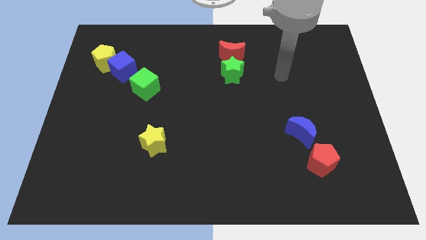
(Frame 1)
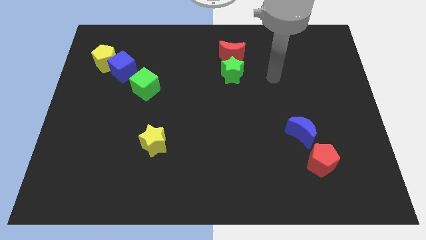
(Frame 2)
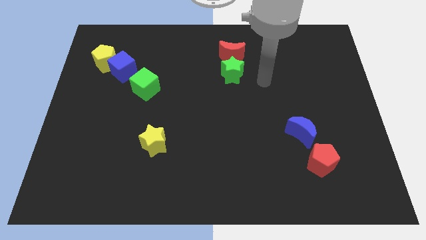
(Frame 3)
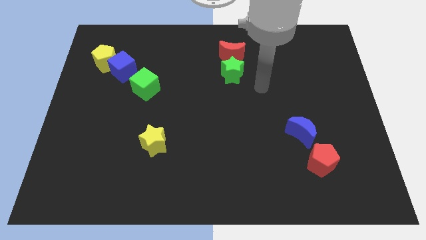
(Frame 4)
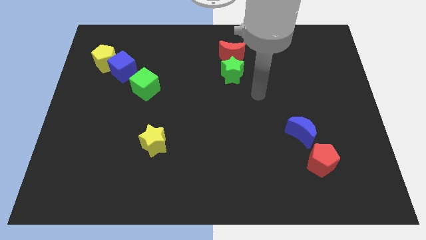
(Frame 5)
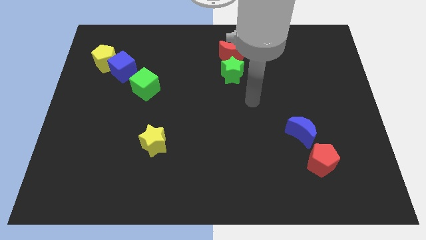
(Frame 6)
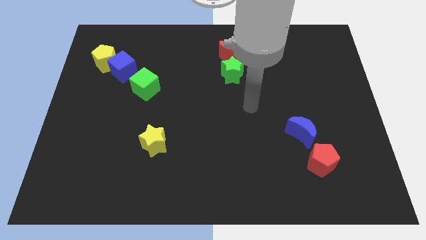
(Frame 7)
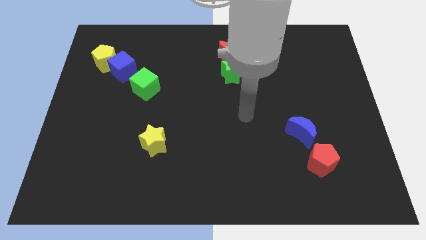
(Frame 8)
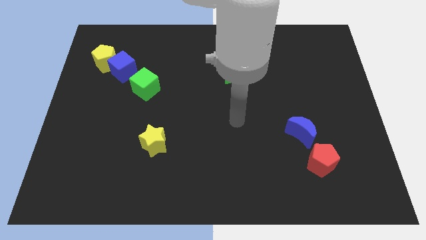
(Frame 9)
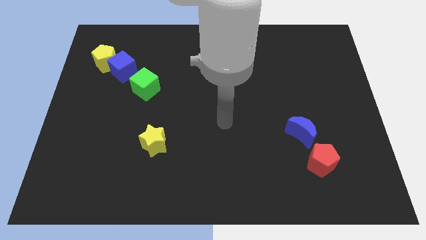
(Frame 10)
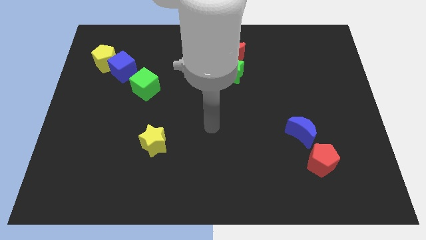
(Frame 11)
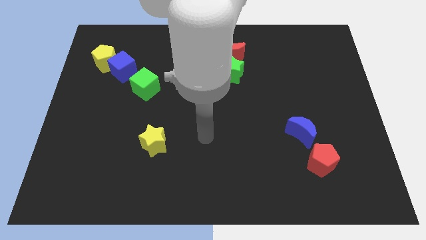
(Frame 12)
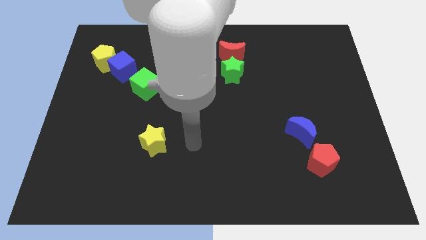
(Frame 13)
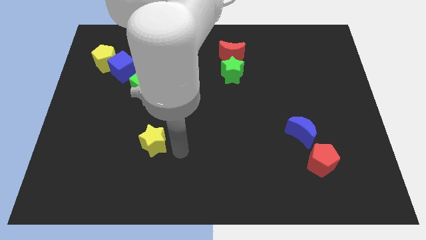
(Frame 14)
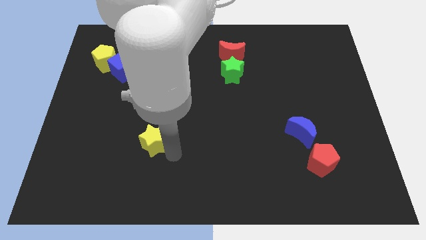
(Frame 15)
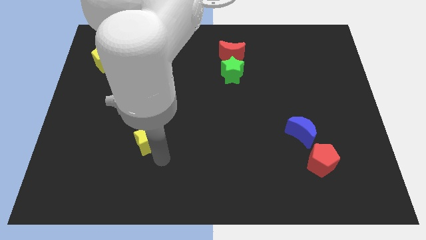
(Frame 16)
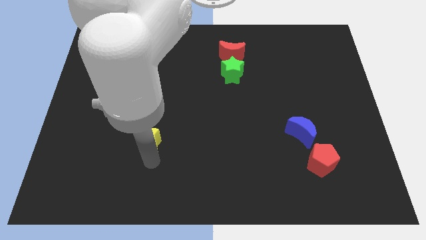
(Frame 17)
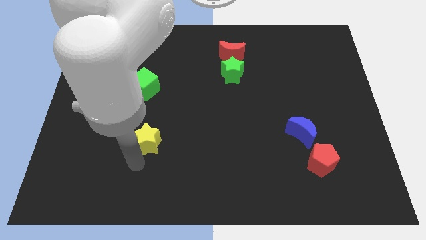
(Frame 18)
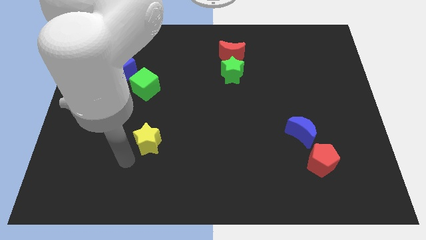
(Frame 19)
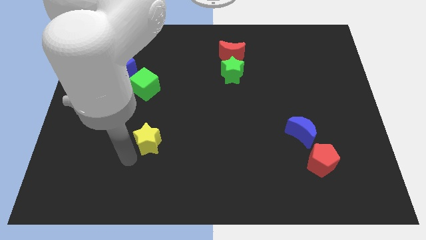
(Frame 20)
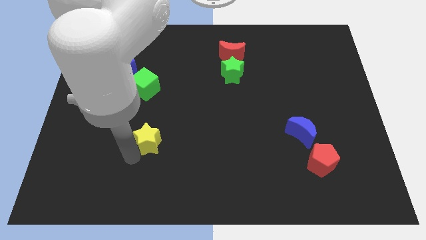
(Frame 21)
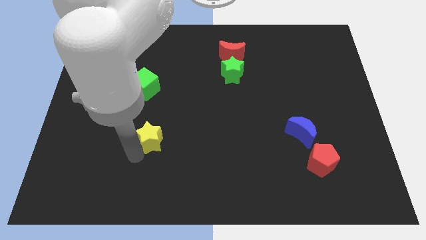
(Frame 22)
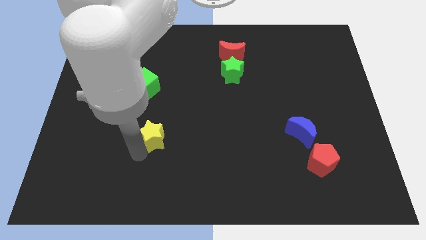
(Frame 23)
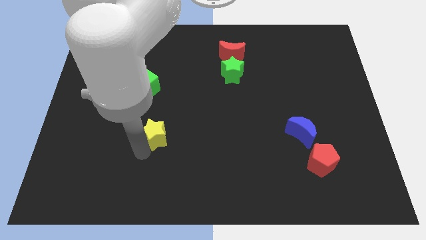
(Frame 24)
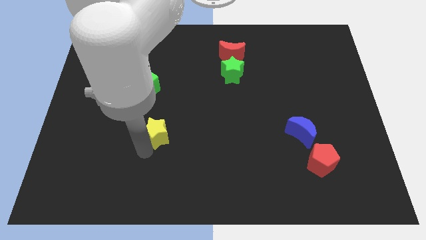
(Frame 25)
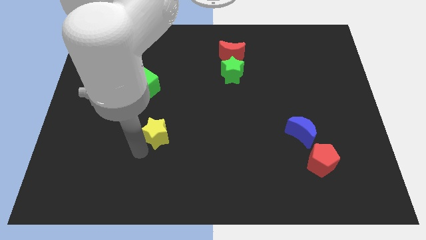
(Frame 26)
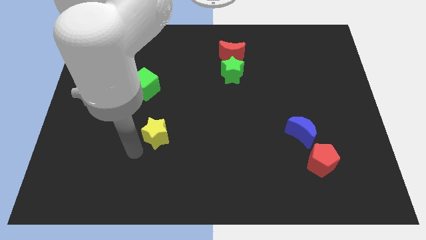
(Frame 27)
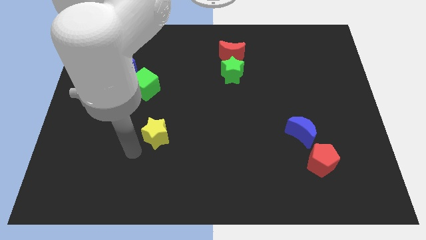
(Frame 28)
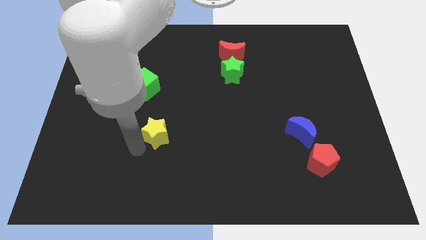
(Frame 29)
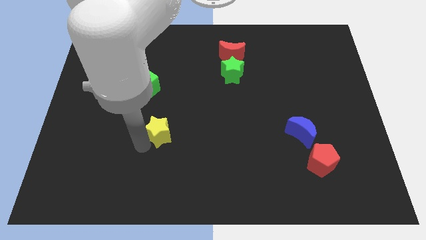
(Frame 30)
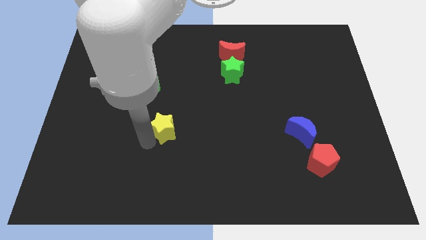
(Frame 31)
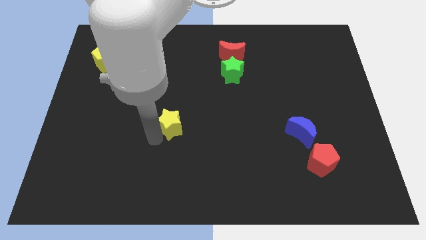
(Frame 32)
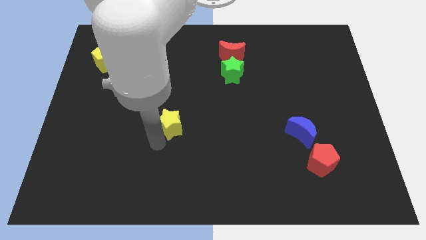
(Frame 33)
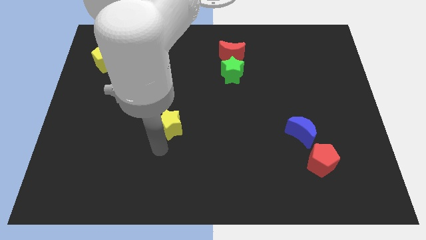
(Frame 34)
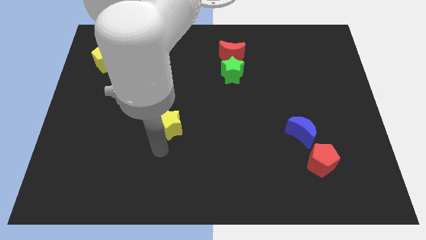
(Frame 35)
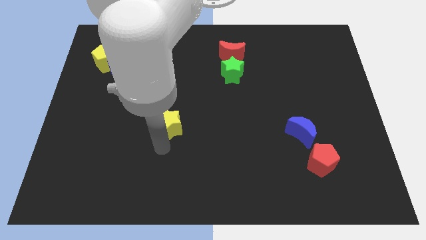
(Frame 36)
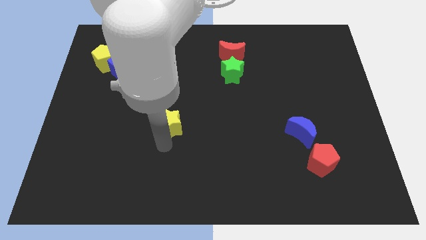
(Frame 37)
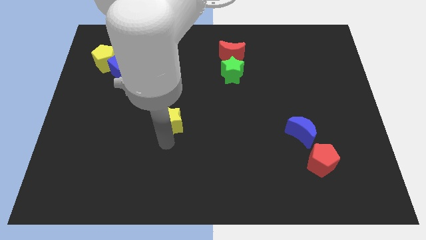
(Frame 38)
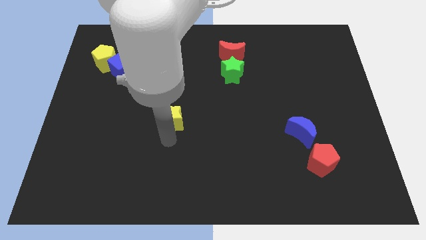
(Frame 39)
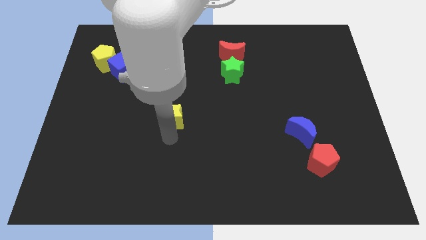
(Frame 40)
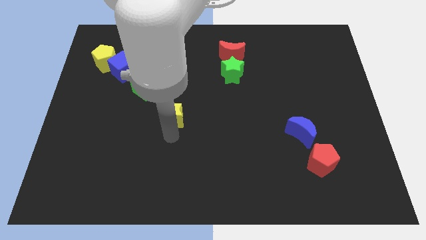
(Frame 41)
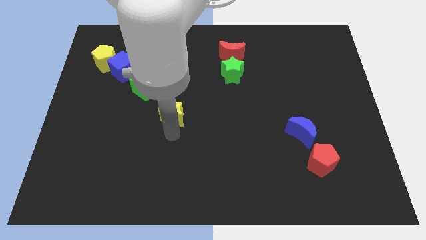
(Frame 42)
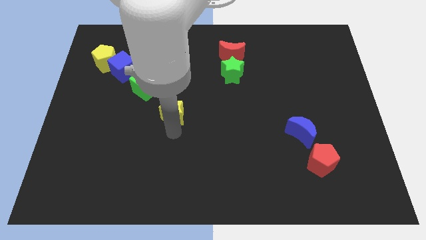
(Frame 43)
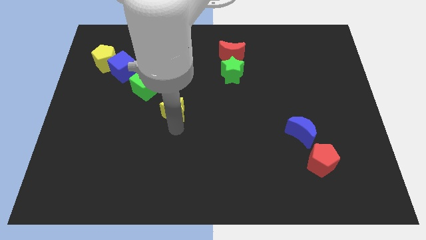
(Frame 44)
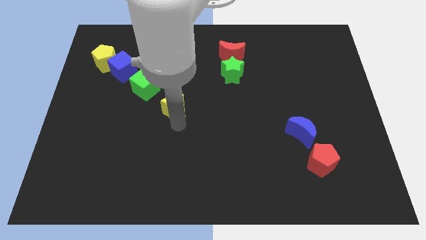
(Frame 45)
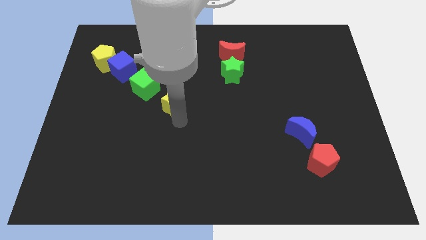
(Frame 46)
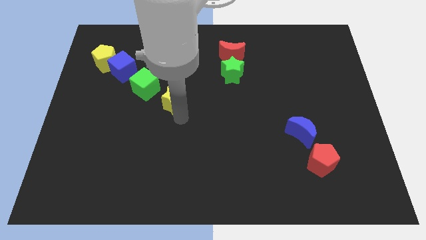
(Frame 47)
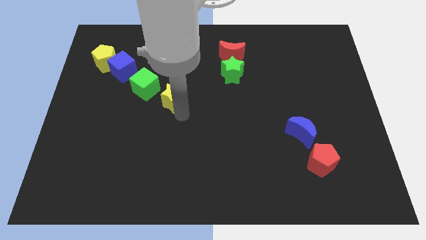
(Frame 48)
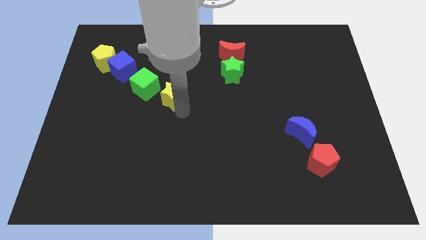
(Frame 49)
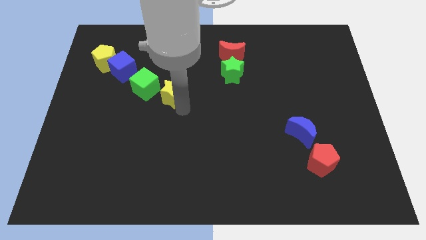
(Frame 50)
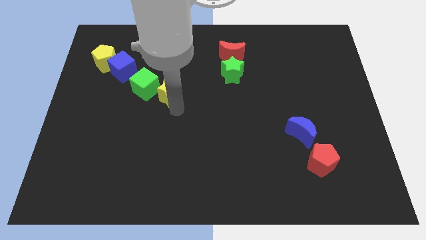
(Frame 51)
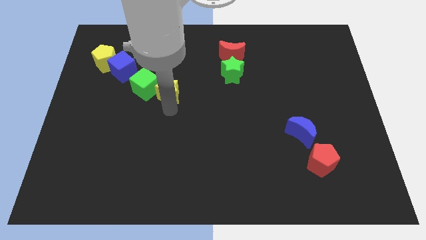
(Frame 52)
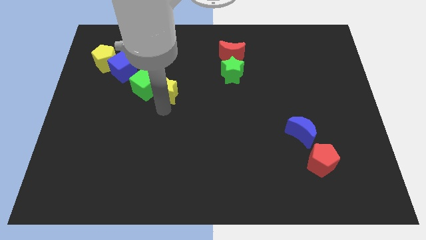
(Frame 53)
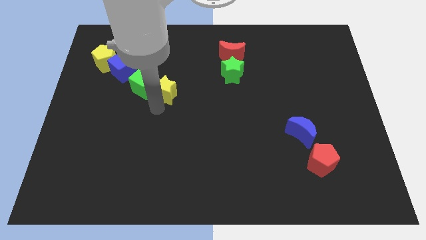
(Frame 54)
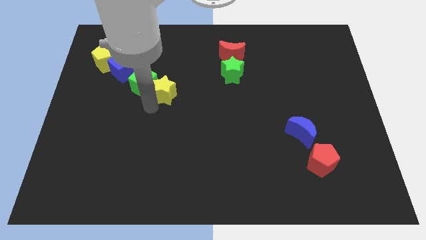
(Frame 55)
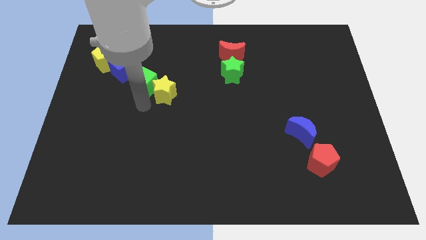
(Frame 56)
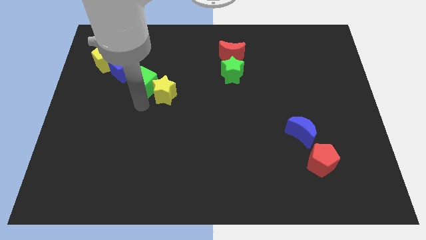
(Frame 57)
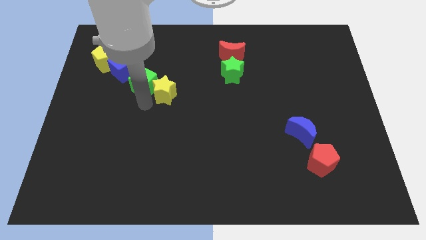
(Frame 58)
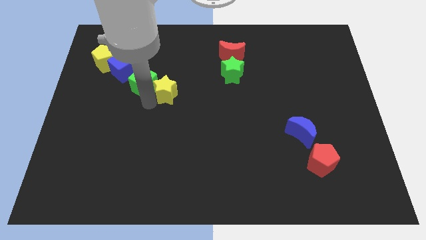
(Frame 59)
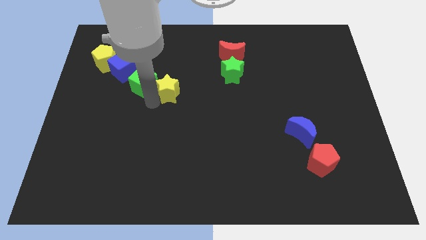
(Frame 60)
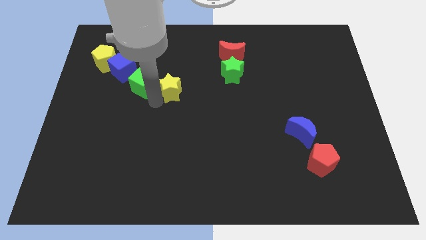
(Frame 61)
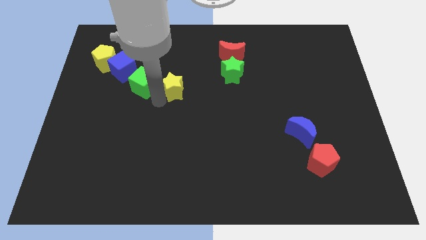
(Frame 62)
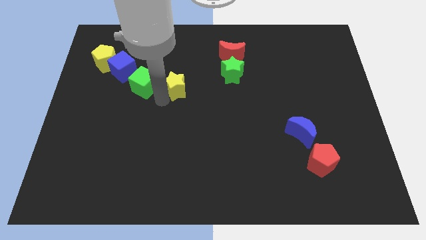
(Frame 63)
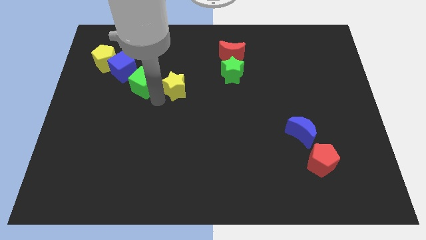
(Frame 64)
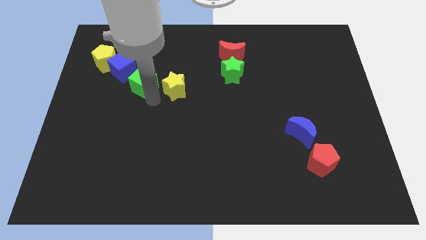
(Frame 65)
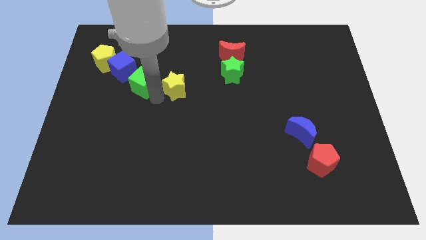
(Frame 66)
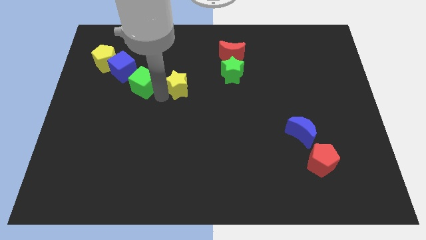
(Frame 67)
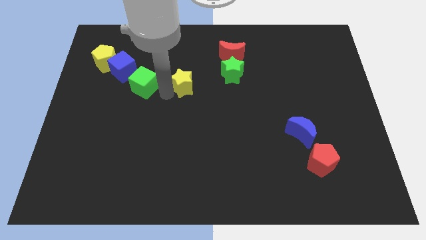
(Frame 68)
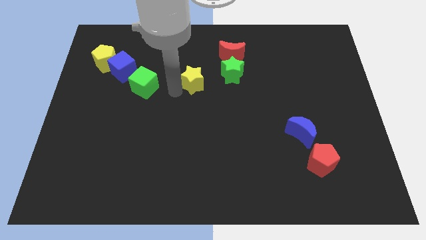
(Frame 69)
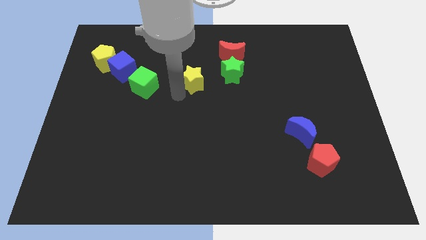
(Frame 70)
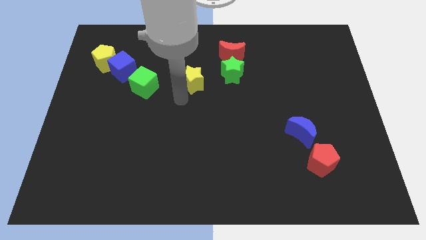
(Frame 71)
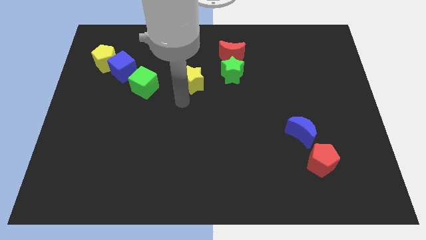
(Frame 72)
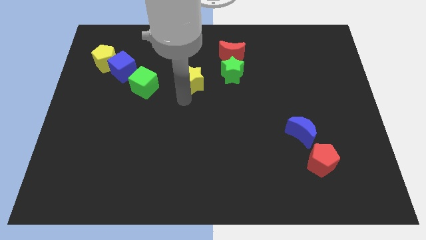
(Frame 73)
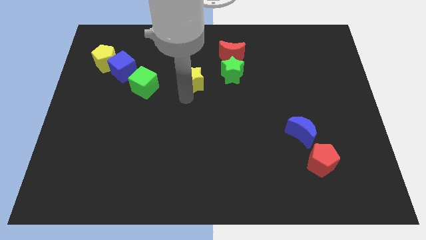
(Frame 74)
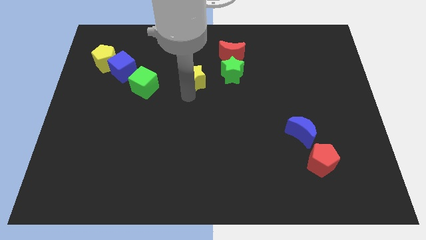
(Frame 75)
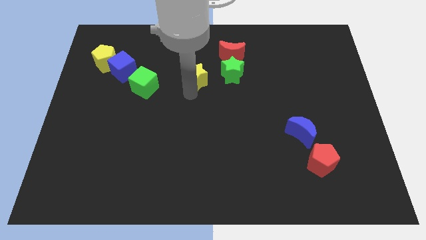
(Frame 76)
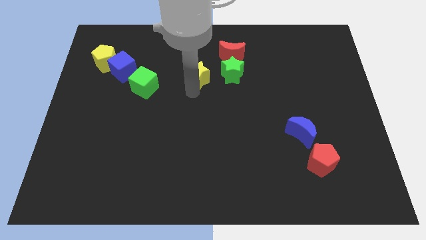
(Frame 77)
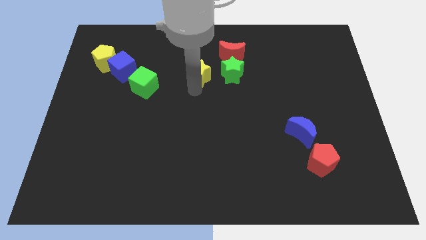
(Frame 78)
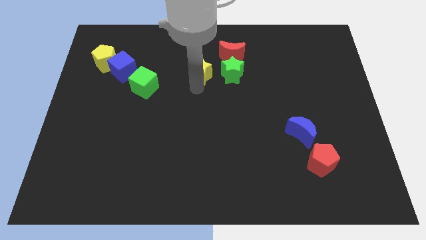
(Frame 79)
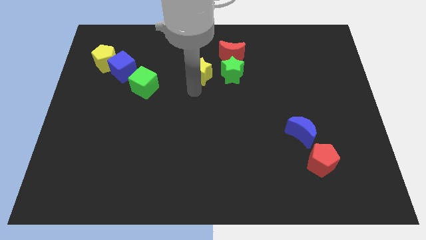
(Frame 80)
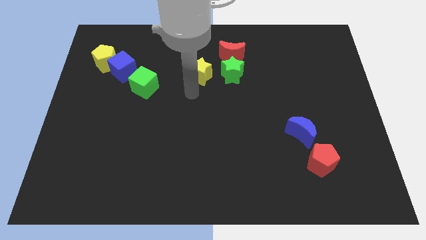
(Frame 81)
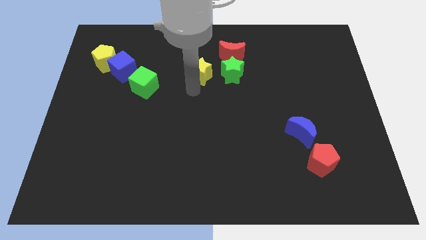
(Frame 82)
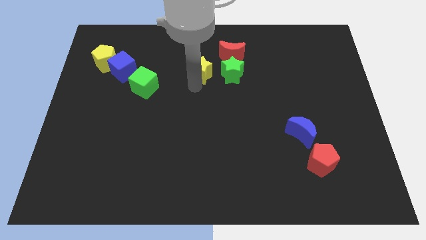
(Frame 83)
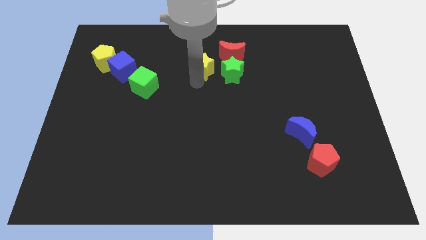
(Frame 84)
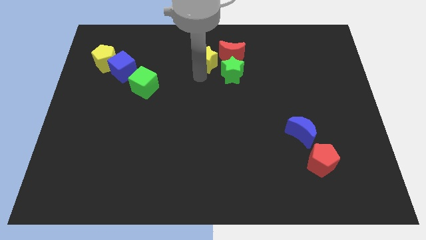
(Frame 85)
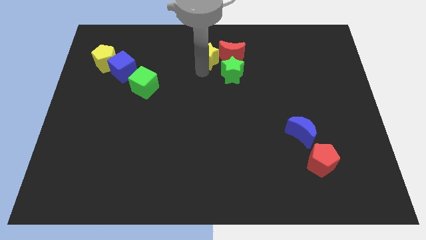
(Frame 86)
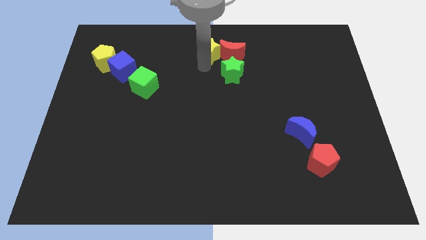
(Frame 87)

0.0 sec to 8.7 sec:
slide the yellow star to the towards your base
